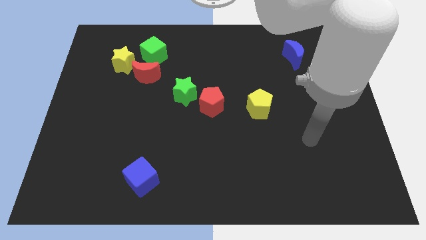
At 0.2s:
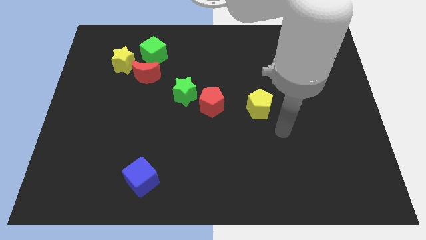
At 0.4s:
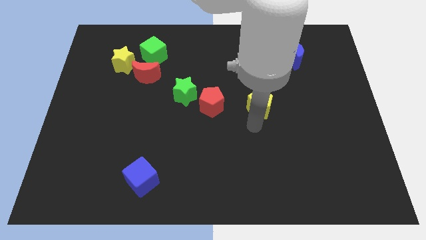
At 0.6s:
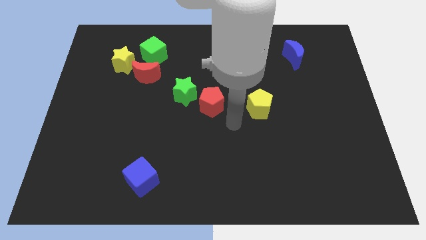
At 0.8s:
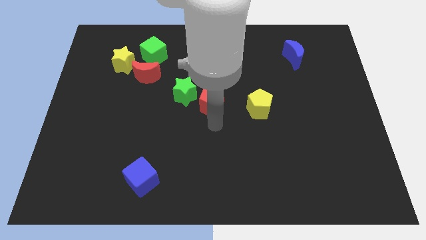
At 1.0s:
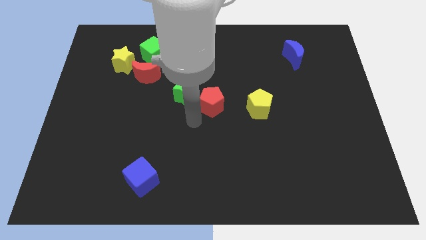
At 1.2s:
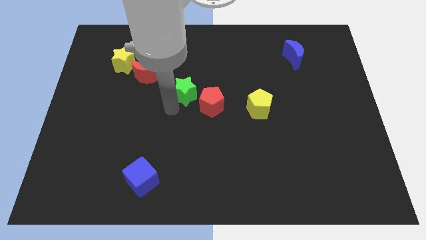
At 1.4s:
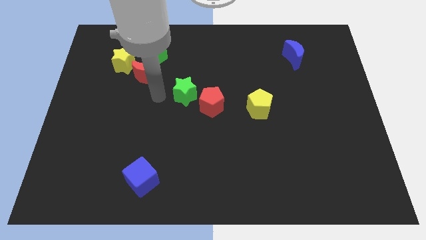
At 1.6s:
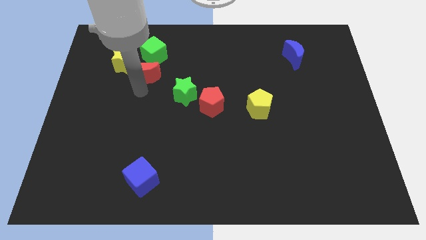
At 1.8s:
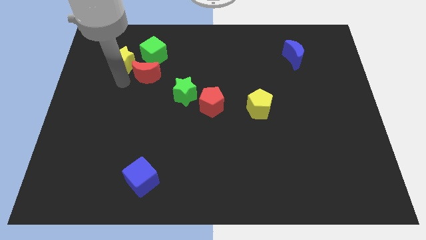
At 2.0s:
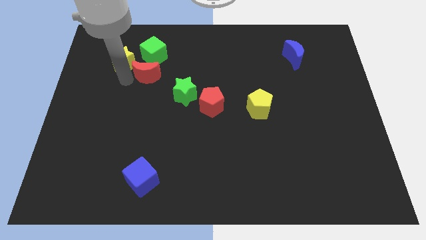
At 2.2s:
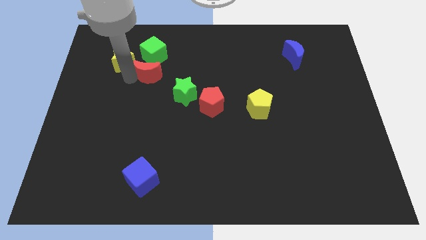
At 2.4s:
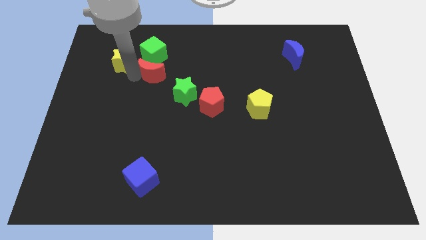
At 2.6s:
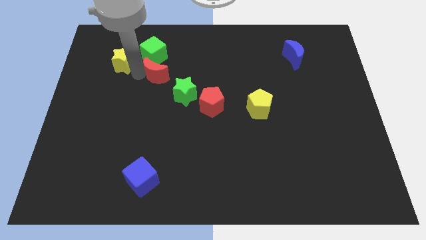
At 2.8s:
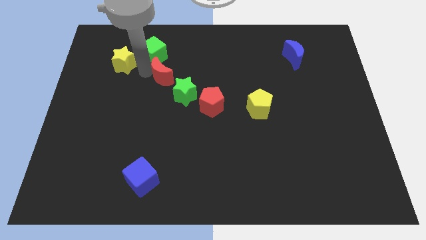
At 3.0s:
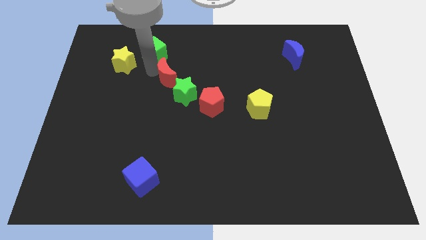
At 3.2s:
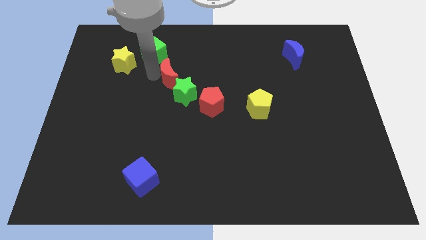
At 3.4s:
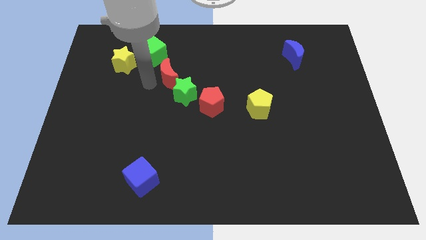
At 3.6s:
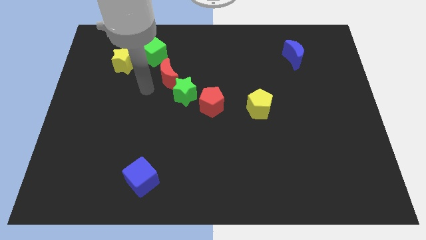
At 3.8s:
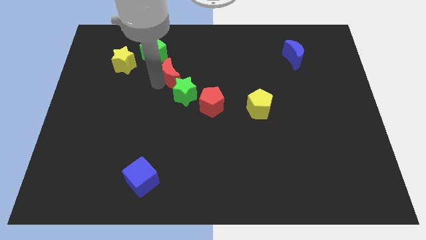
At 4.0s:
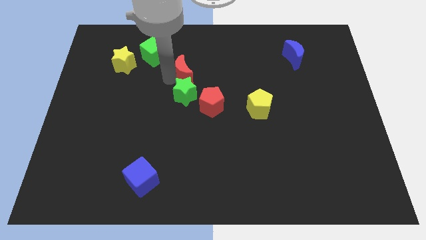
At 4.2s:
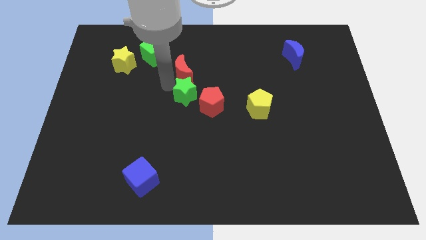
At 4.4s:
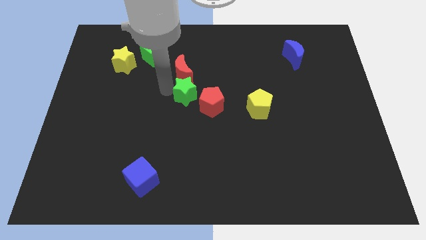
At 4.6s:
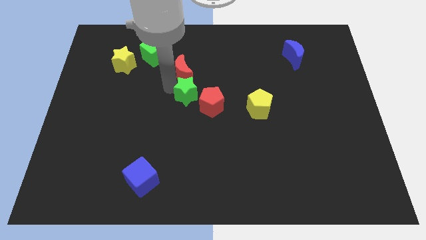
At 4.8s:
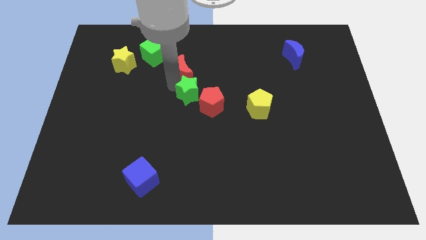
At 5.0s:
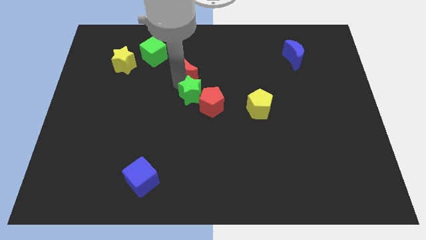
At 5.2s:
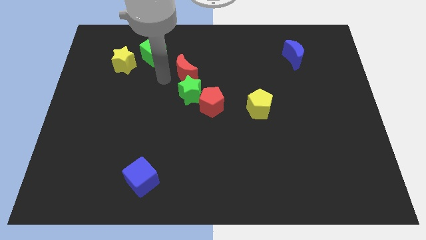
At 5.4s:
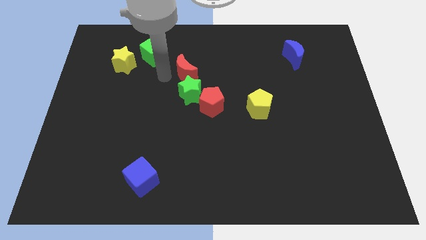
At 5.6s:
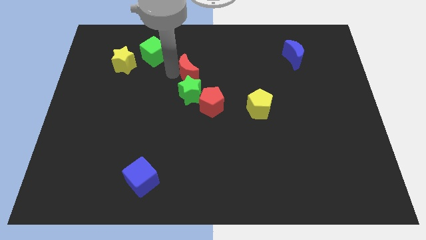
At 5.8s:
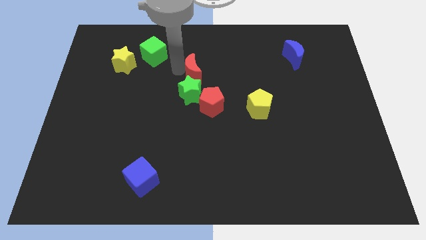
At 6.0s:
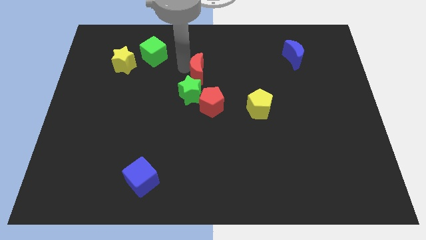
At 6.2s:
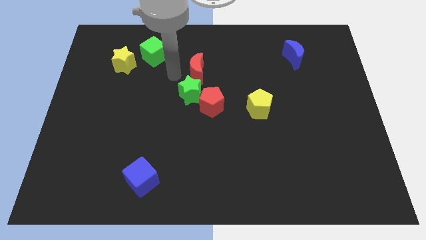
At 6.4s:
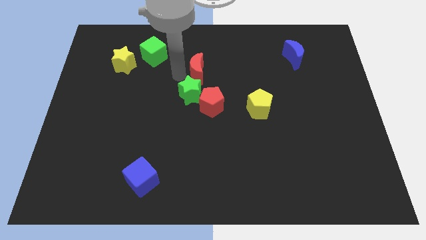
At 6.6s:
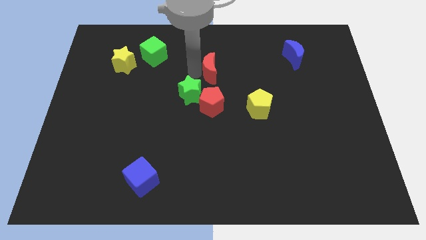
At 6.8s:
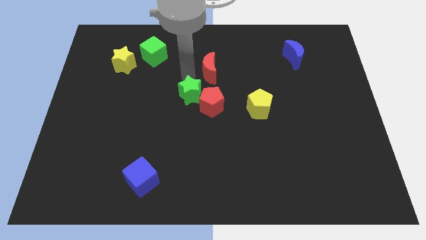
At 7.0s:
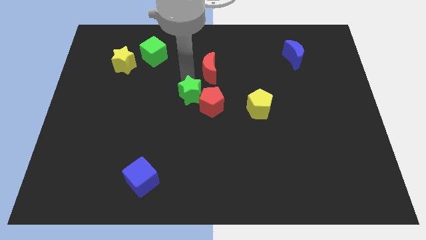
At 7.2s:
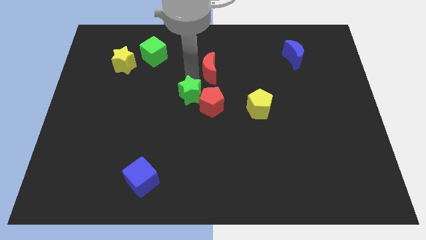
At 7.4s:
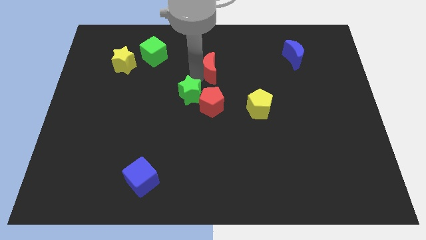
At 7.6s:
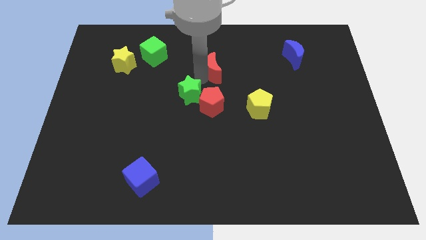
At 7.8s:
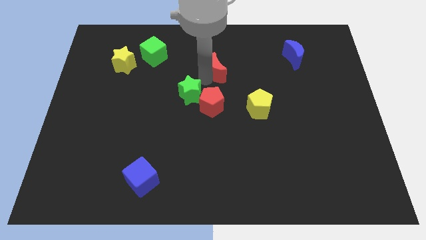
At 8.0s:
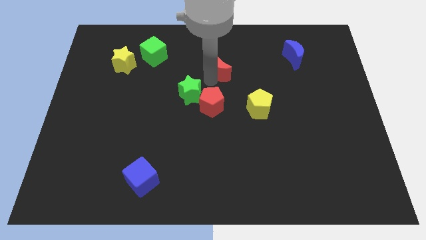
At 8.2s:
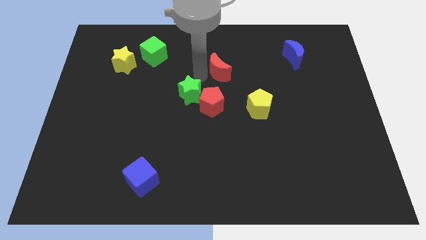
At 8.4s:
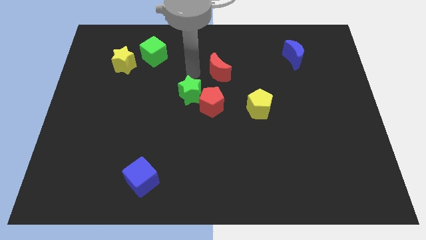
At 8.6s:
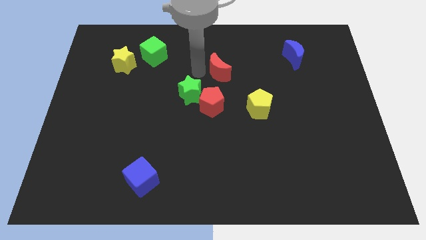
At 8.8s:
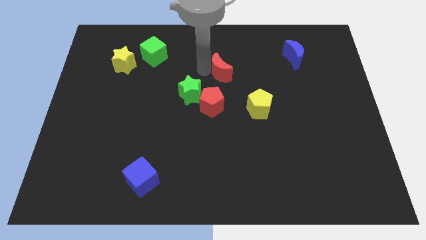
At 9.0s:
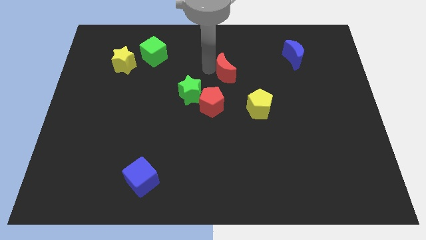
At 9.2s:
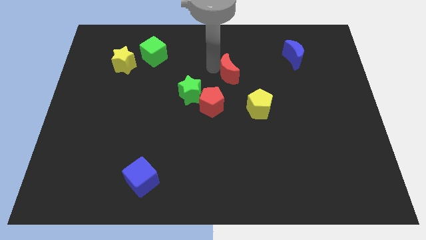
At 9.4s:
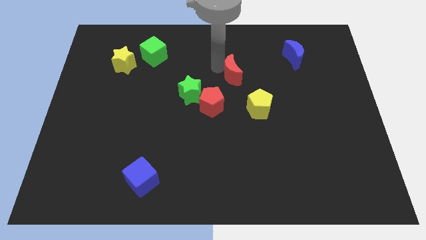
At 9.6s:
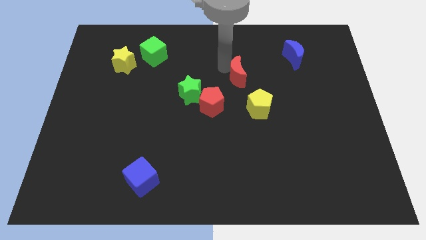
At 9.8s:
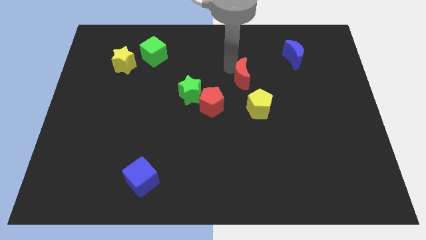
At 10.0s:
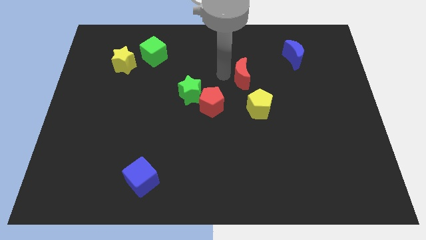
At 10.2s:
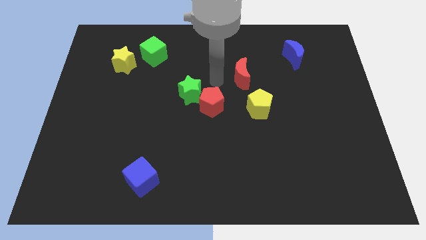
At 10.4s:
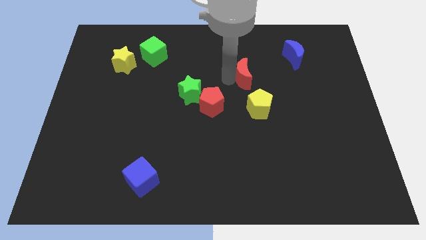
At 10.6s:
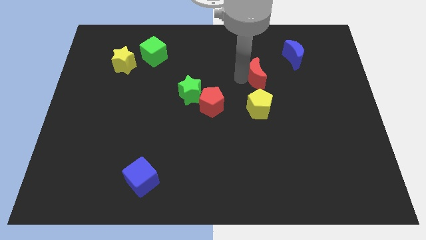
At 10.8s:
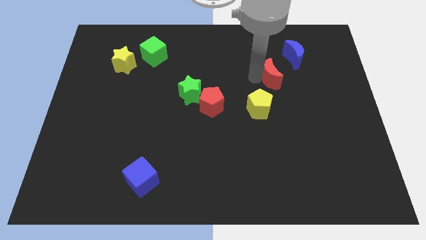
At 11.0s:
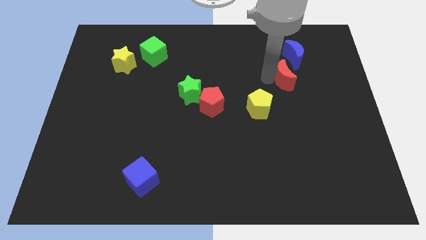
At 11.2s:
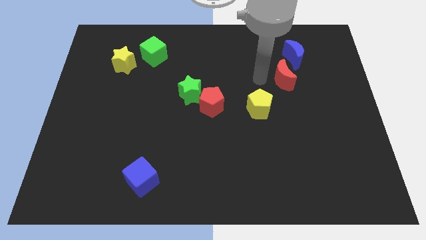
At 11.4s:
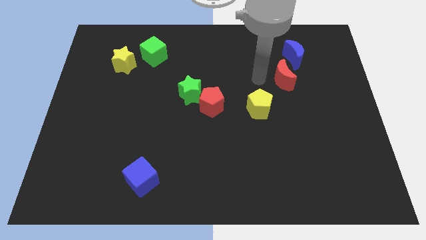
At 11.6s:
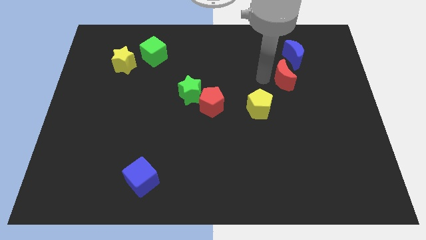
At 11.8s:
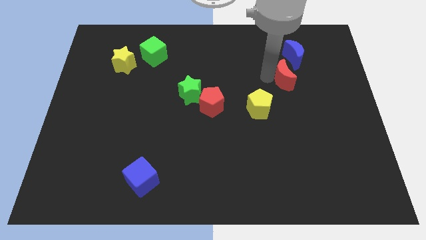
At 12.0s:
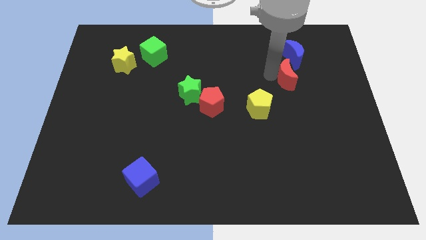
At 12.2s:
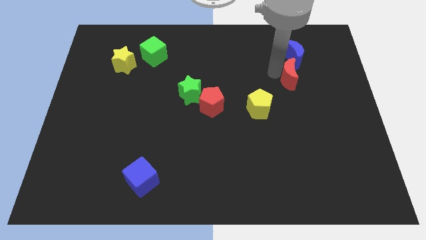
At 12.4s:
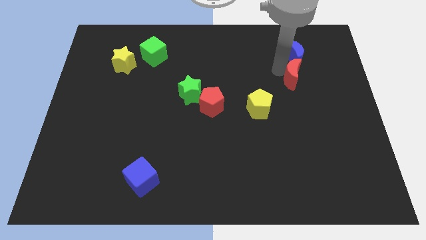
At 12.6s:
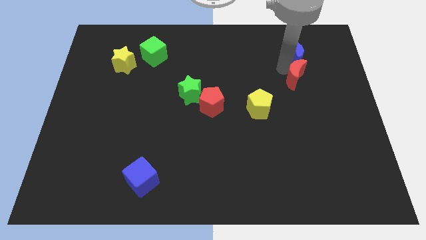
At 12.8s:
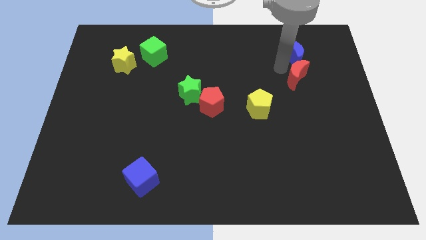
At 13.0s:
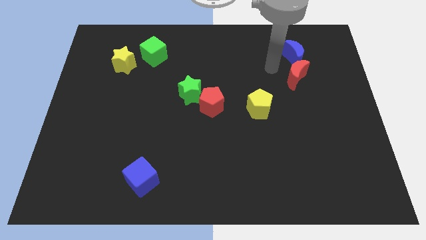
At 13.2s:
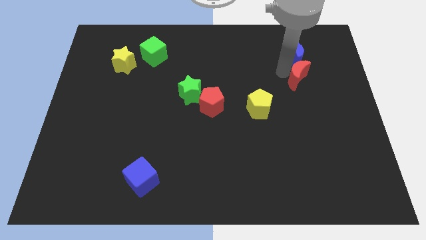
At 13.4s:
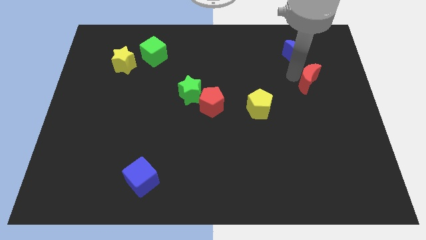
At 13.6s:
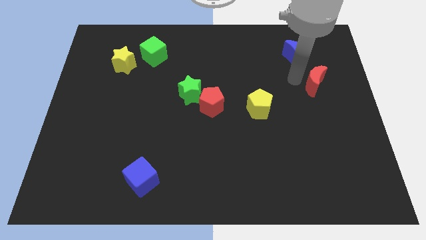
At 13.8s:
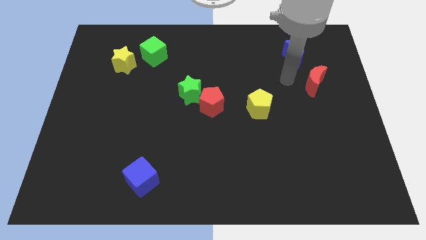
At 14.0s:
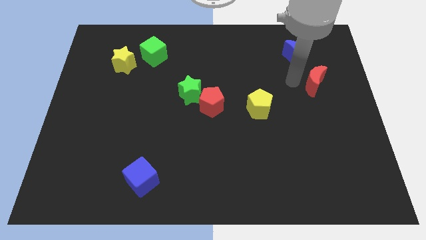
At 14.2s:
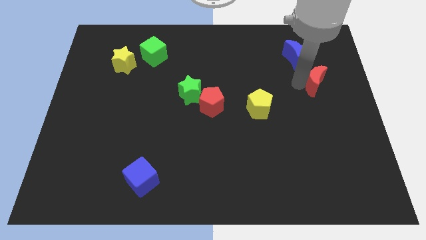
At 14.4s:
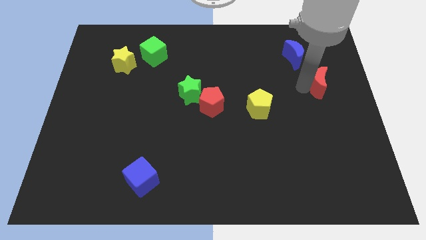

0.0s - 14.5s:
push the red moon to the center right
